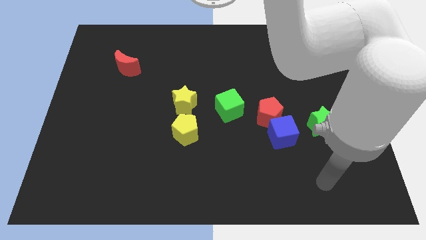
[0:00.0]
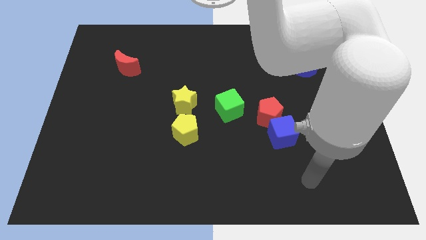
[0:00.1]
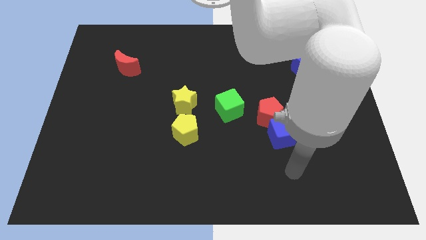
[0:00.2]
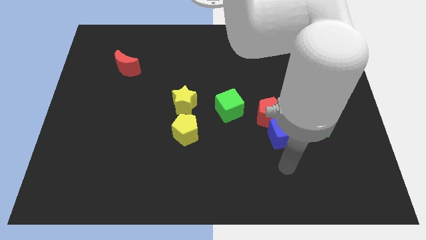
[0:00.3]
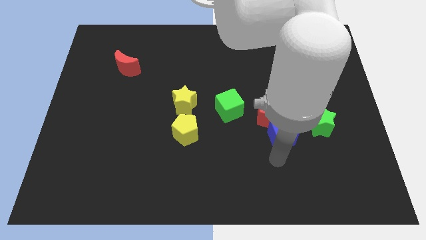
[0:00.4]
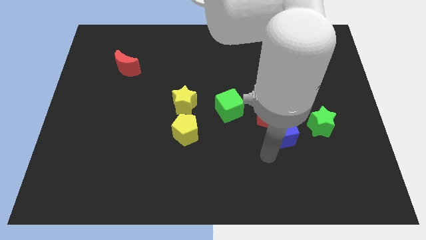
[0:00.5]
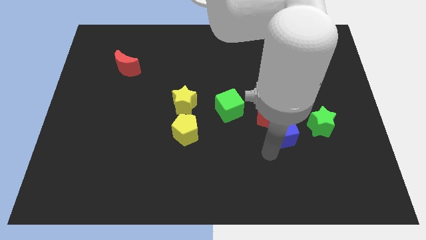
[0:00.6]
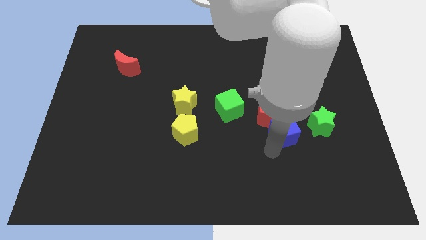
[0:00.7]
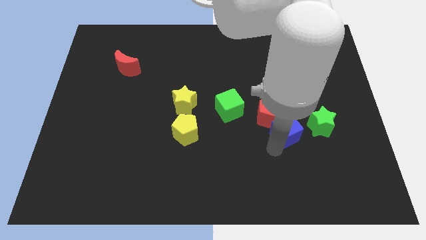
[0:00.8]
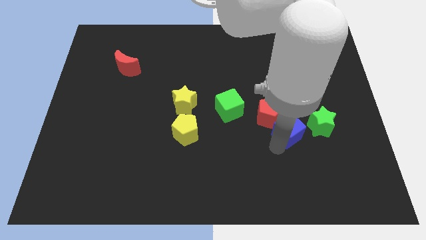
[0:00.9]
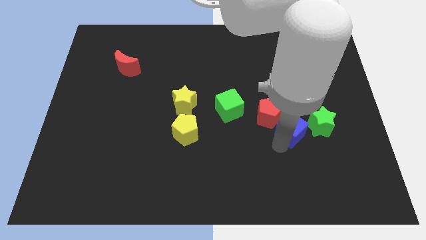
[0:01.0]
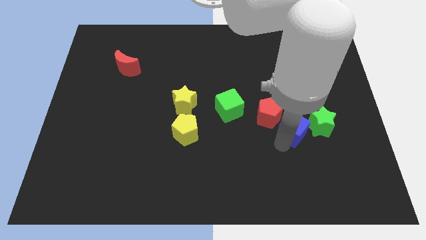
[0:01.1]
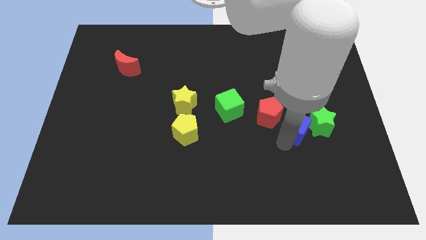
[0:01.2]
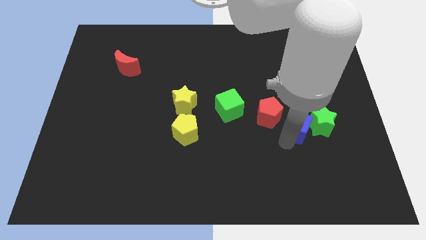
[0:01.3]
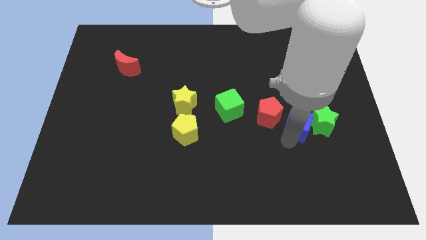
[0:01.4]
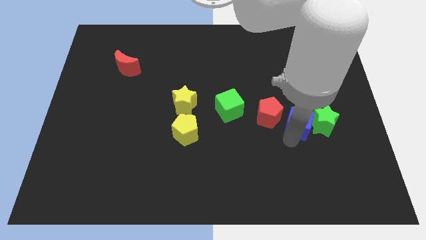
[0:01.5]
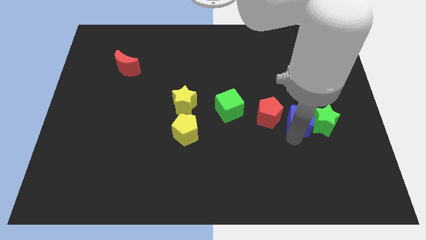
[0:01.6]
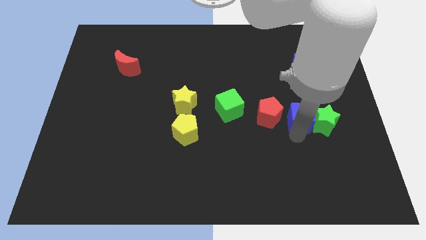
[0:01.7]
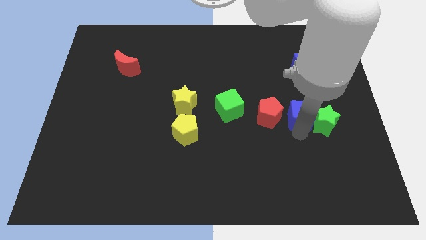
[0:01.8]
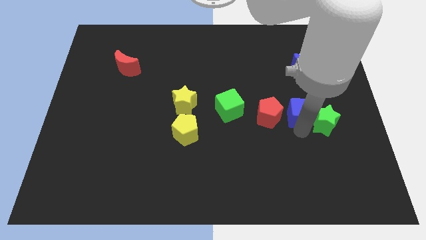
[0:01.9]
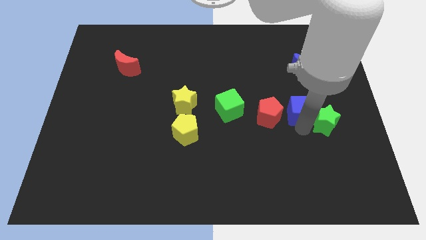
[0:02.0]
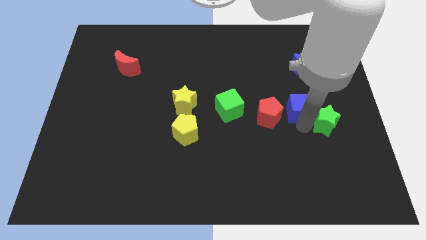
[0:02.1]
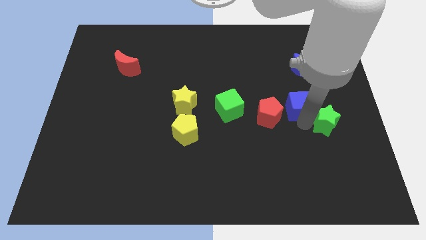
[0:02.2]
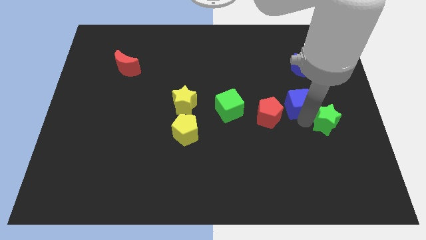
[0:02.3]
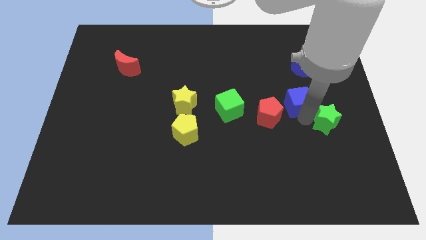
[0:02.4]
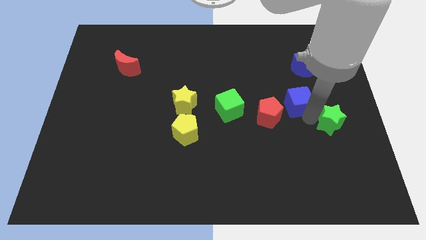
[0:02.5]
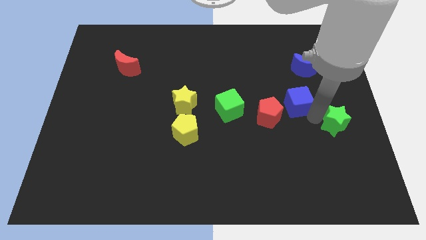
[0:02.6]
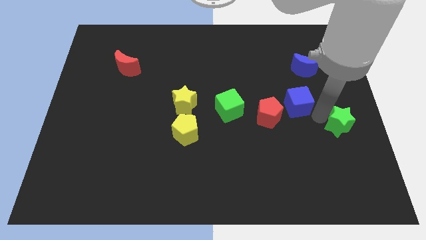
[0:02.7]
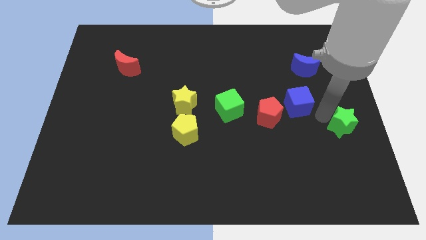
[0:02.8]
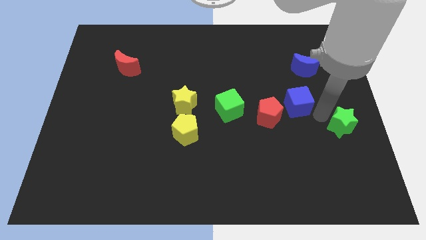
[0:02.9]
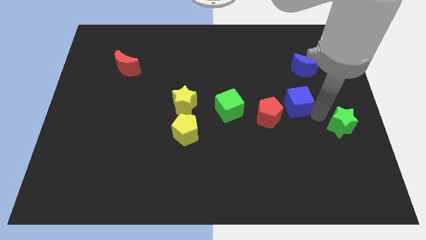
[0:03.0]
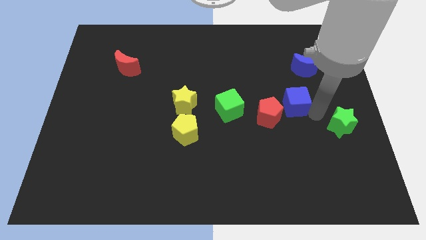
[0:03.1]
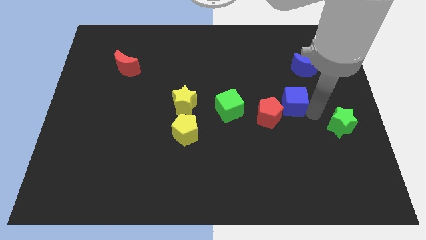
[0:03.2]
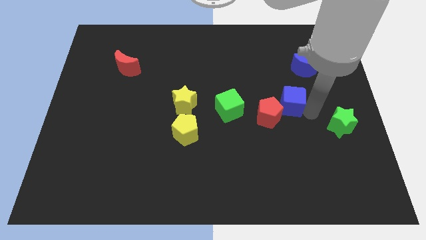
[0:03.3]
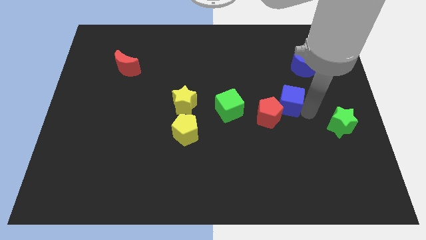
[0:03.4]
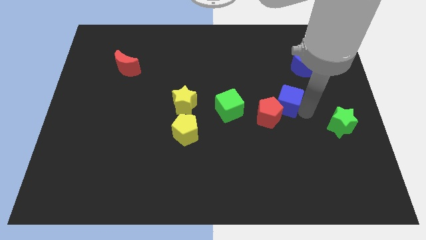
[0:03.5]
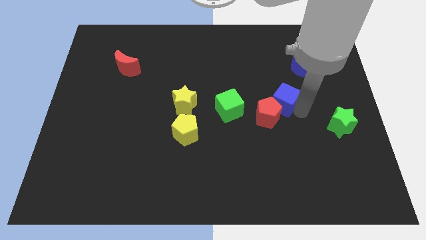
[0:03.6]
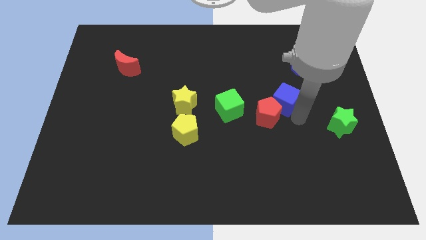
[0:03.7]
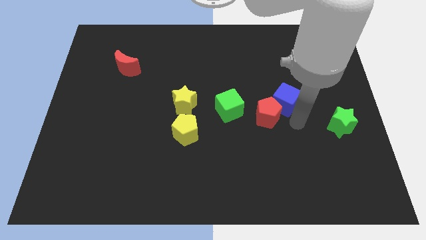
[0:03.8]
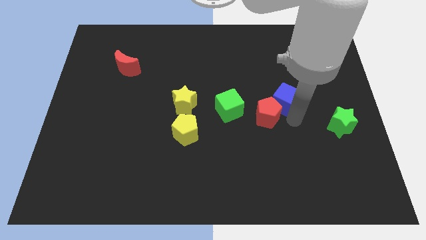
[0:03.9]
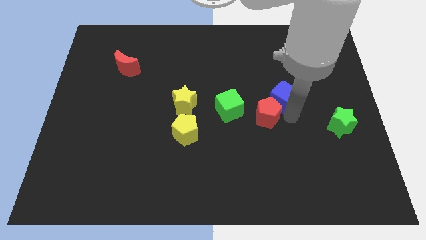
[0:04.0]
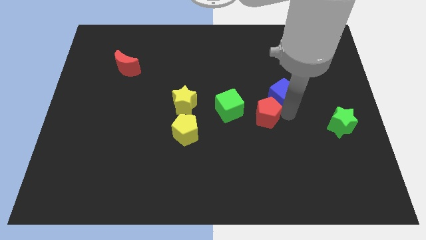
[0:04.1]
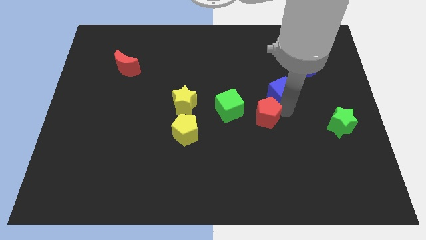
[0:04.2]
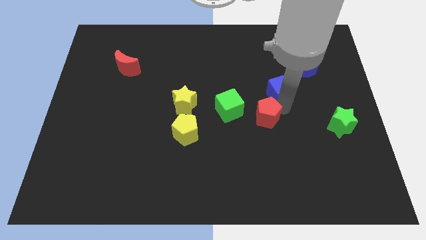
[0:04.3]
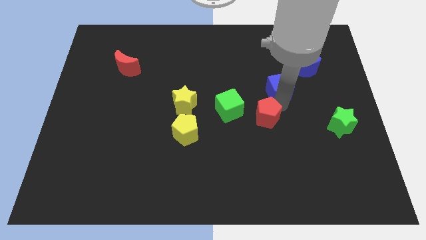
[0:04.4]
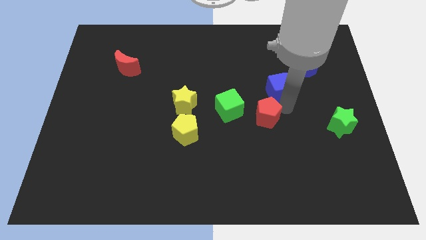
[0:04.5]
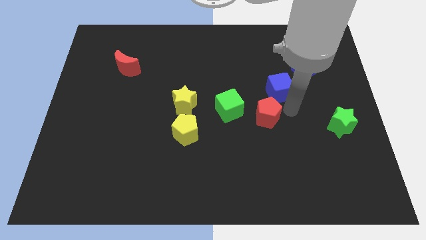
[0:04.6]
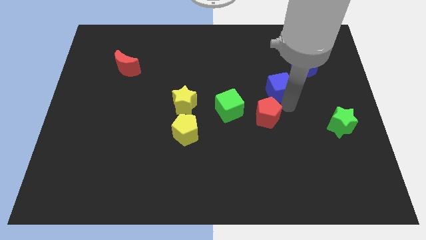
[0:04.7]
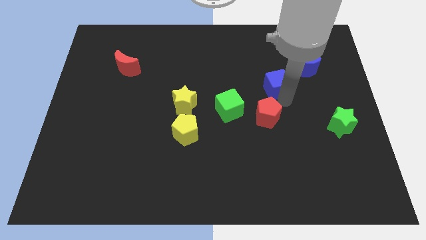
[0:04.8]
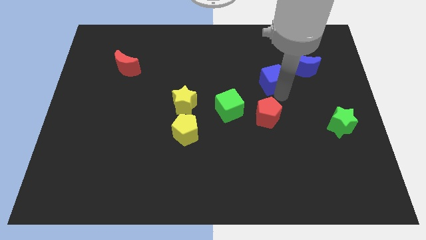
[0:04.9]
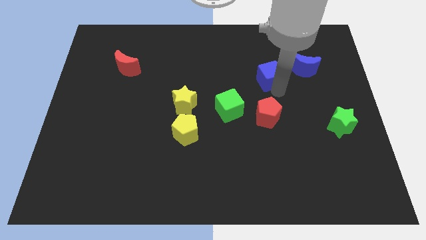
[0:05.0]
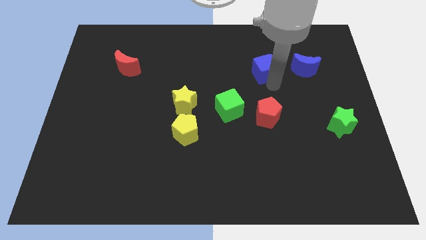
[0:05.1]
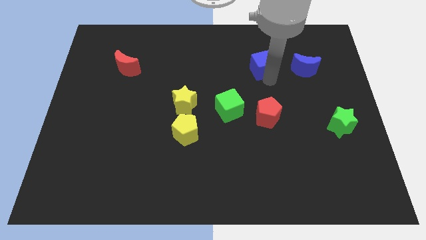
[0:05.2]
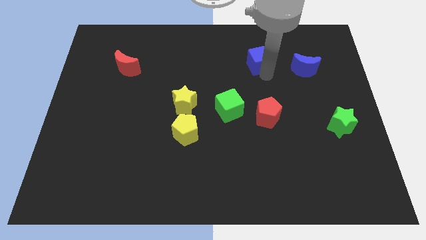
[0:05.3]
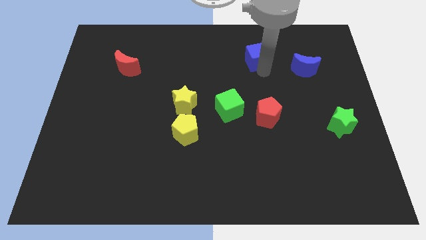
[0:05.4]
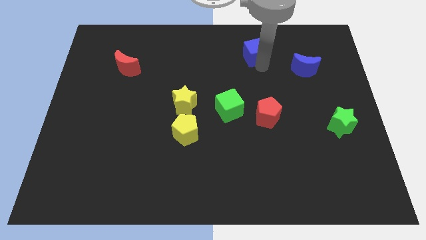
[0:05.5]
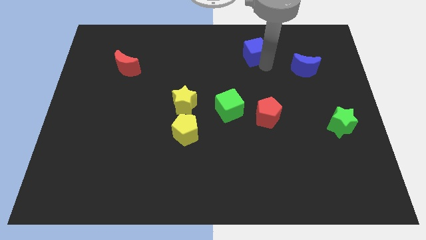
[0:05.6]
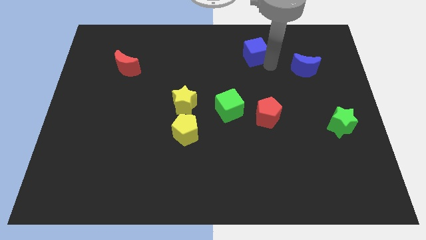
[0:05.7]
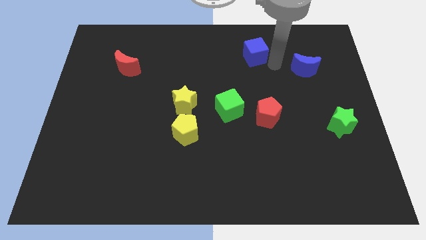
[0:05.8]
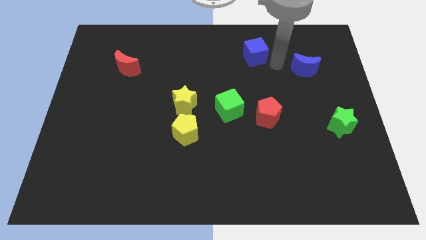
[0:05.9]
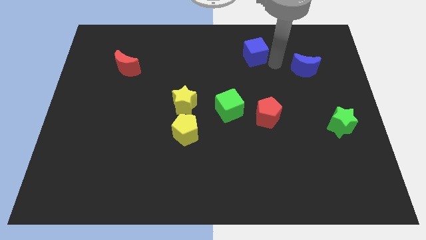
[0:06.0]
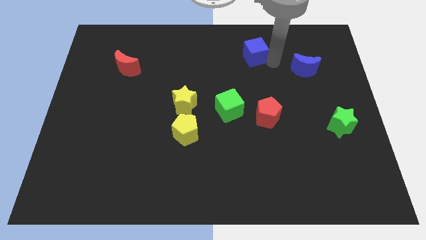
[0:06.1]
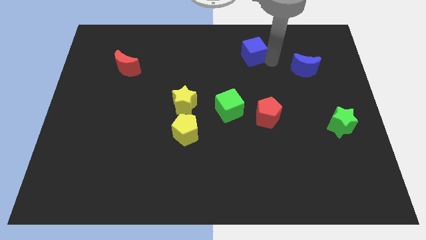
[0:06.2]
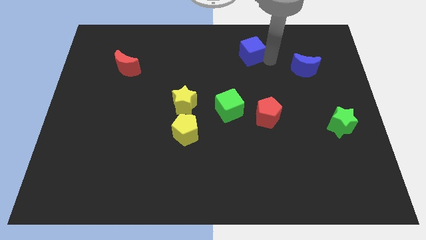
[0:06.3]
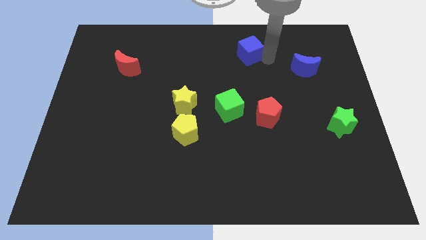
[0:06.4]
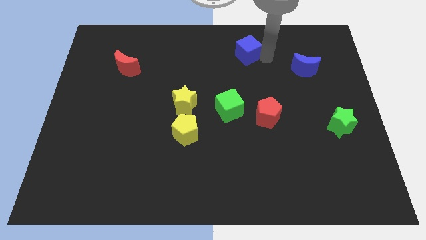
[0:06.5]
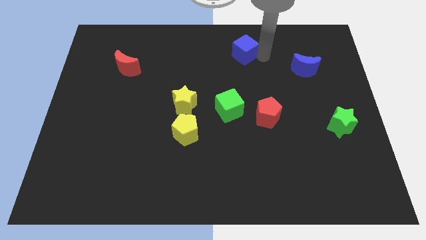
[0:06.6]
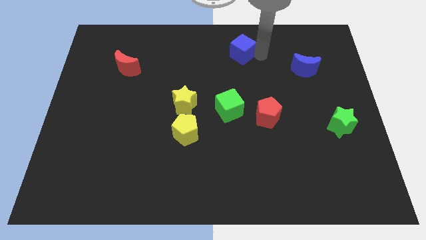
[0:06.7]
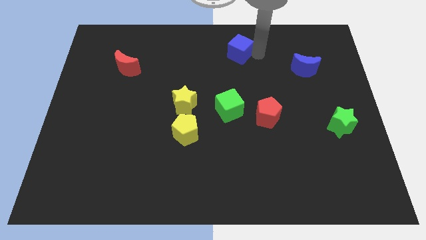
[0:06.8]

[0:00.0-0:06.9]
slide the blue cube to the towards your base
